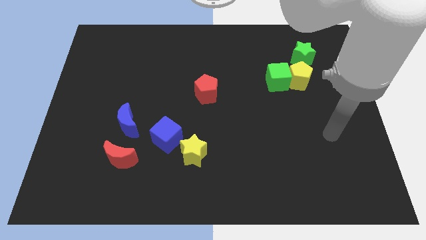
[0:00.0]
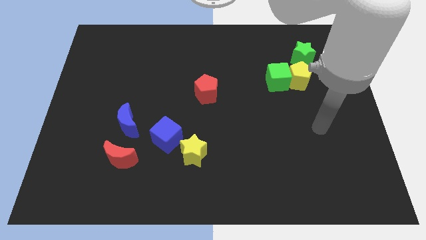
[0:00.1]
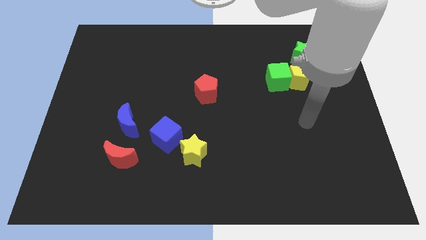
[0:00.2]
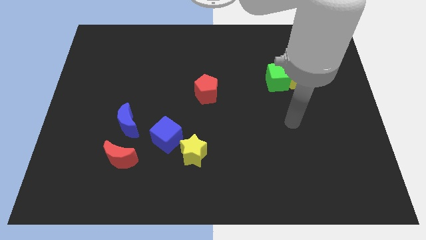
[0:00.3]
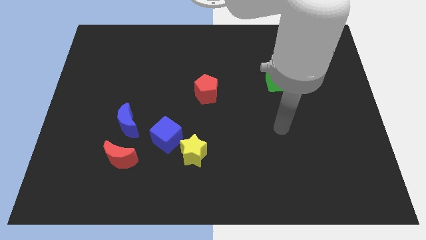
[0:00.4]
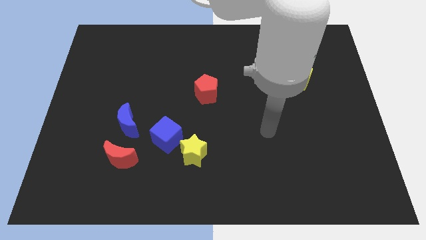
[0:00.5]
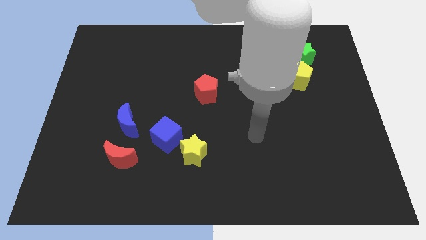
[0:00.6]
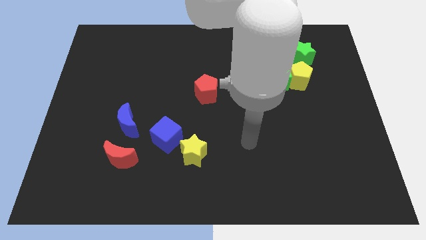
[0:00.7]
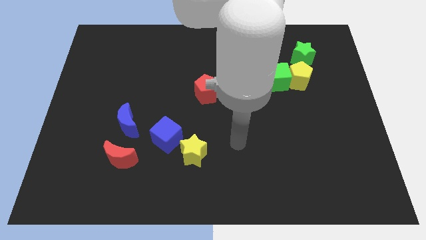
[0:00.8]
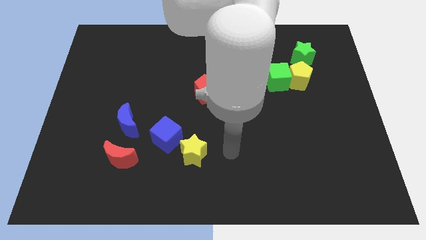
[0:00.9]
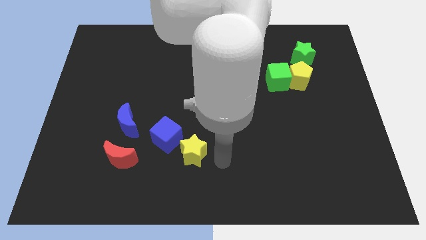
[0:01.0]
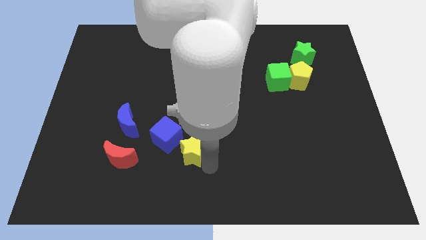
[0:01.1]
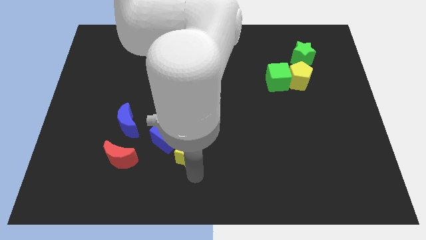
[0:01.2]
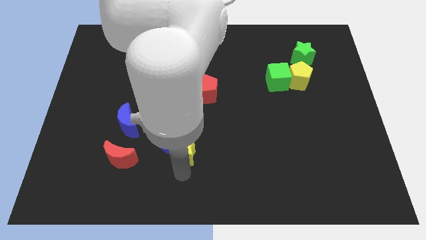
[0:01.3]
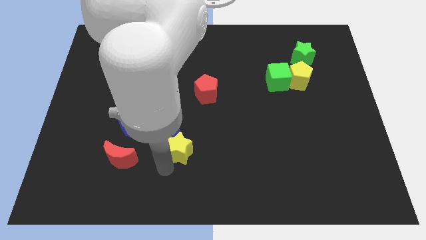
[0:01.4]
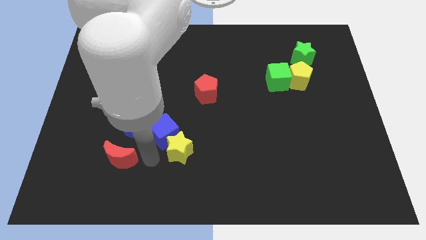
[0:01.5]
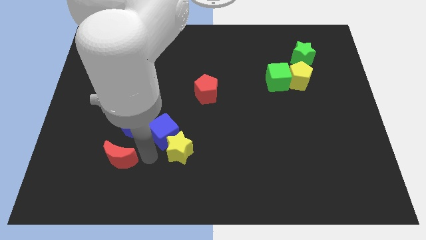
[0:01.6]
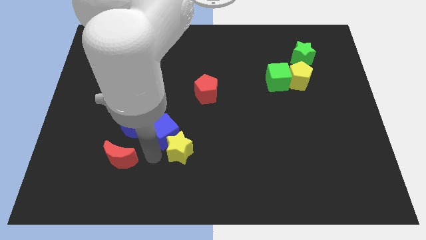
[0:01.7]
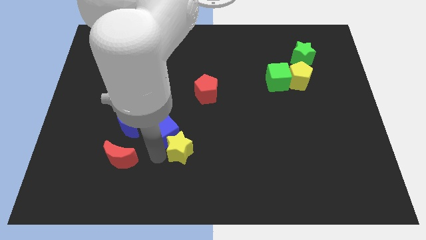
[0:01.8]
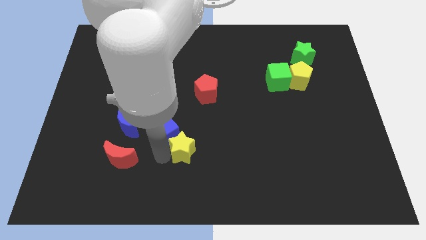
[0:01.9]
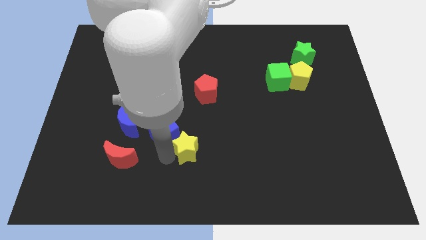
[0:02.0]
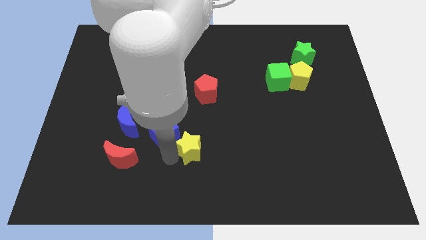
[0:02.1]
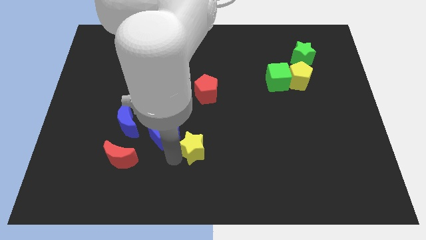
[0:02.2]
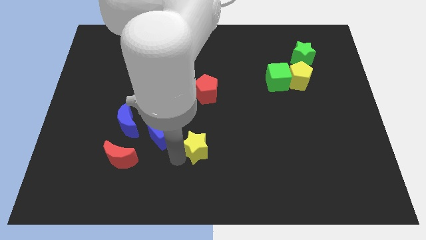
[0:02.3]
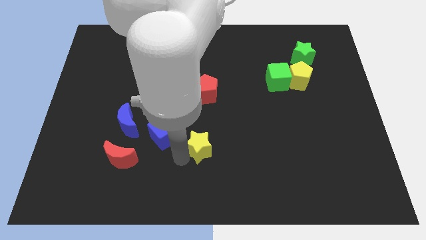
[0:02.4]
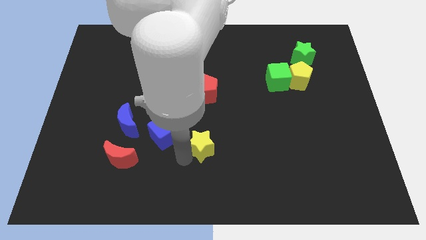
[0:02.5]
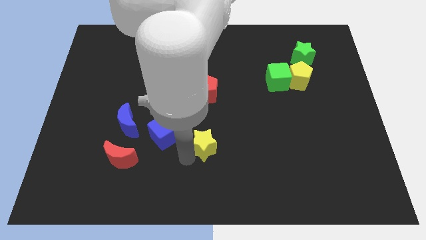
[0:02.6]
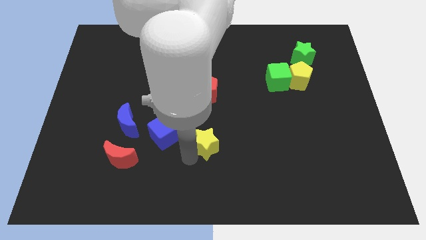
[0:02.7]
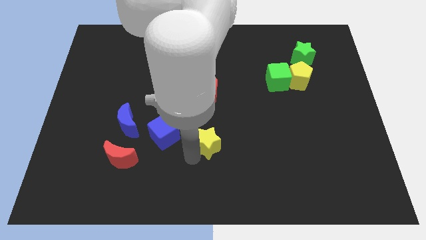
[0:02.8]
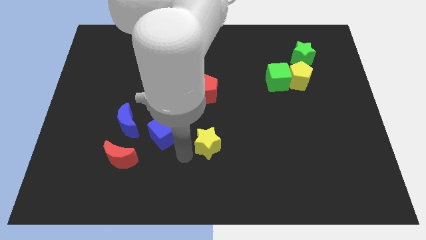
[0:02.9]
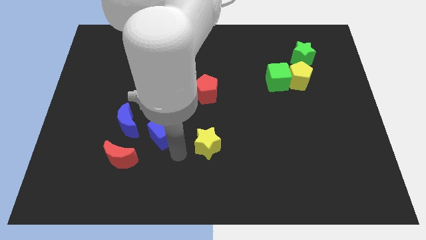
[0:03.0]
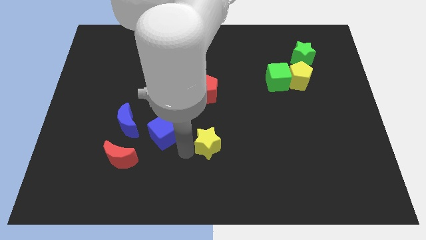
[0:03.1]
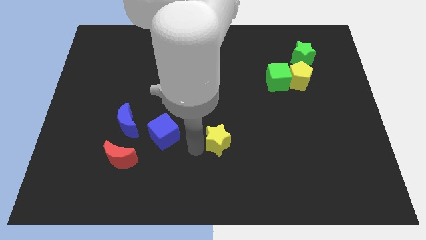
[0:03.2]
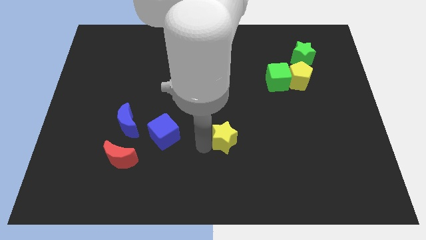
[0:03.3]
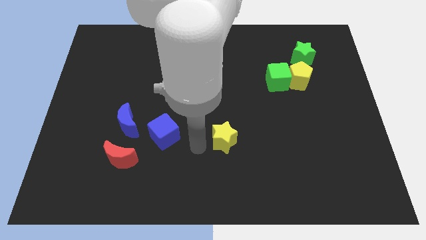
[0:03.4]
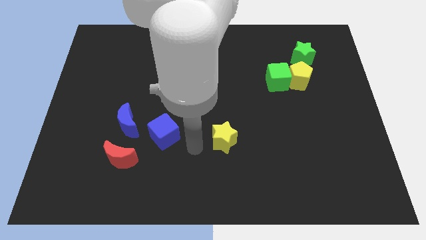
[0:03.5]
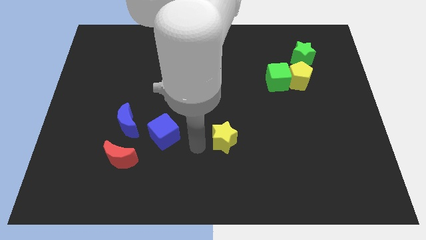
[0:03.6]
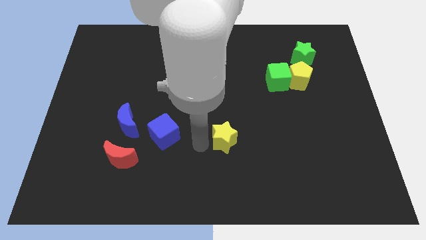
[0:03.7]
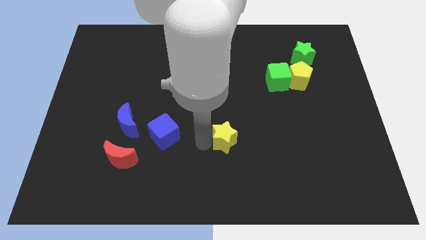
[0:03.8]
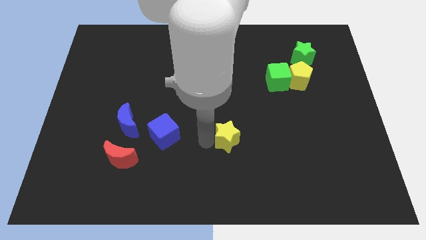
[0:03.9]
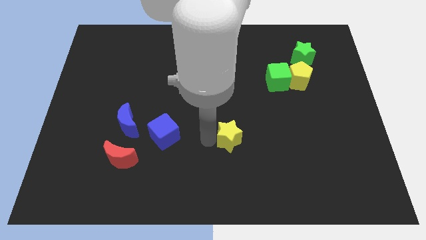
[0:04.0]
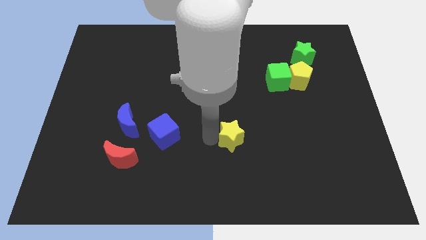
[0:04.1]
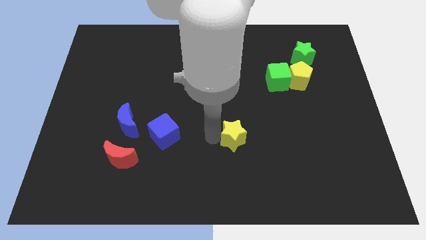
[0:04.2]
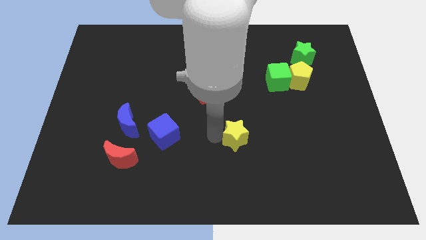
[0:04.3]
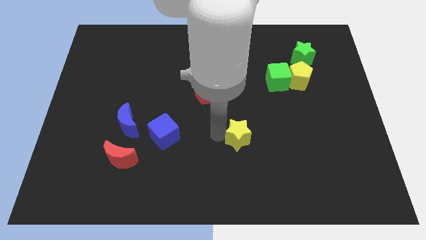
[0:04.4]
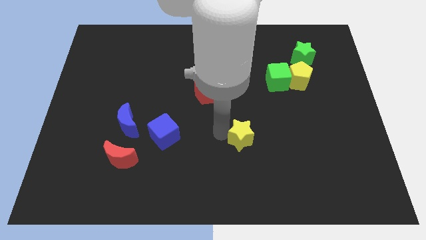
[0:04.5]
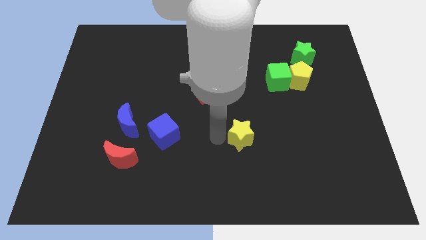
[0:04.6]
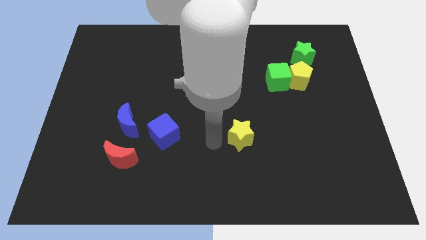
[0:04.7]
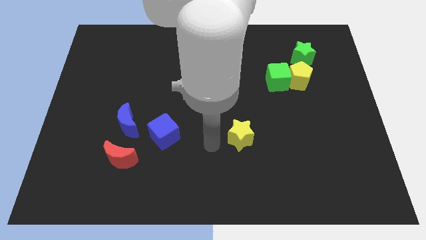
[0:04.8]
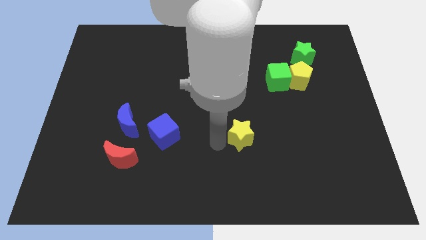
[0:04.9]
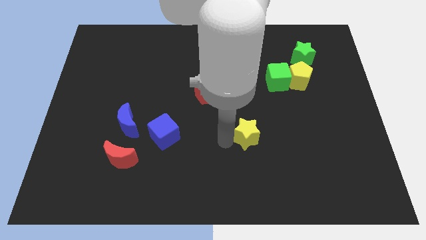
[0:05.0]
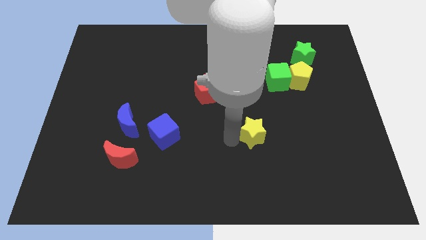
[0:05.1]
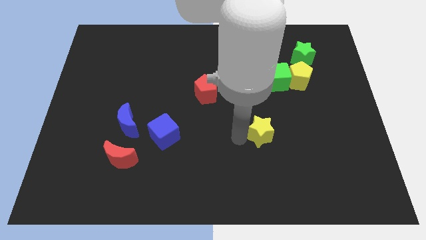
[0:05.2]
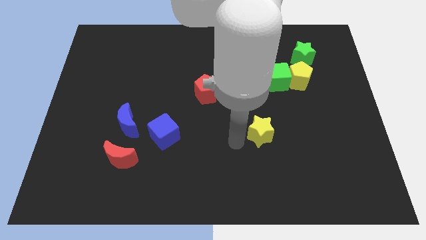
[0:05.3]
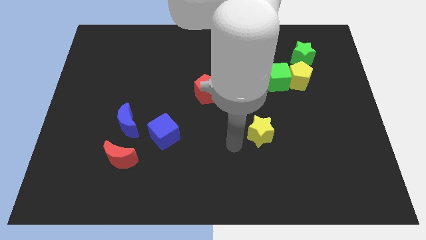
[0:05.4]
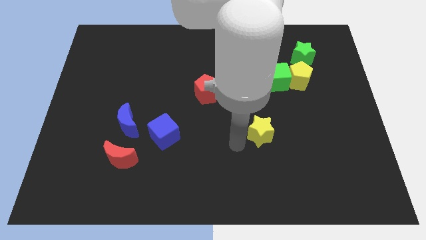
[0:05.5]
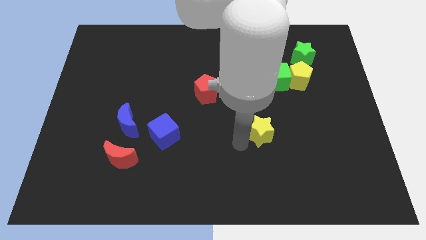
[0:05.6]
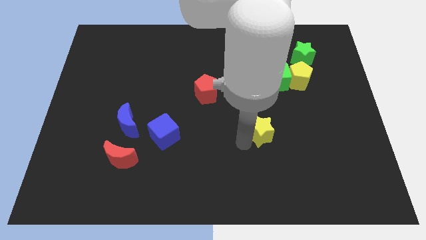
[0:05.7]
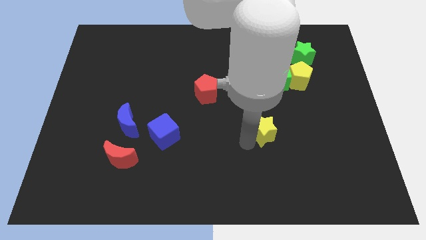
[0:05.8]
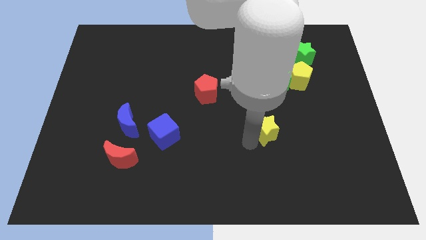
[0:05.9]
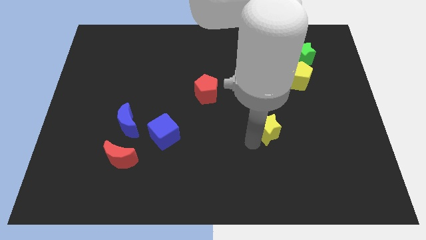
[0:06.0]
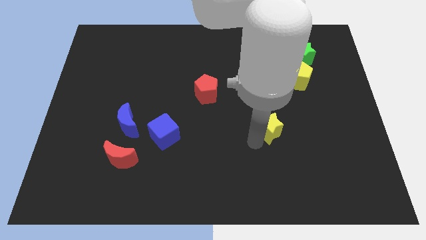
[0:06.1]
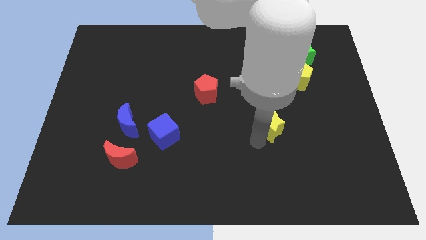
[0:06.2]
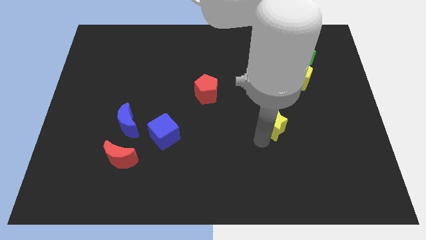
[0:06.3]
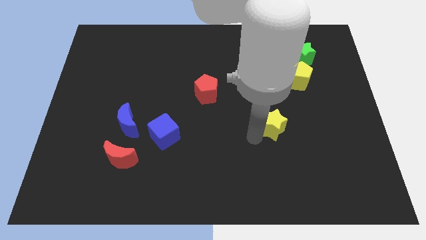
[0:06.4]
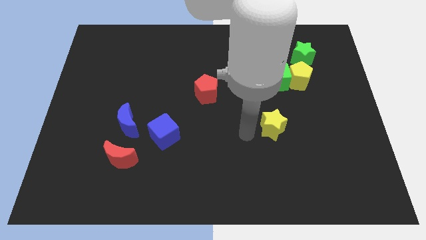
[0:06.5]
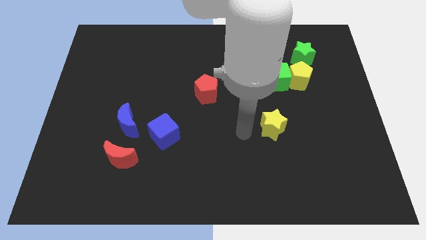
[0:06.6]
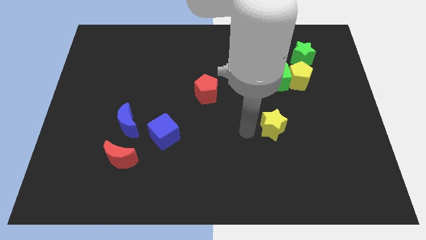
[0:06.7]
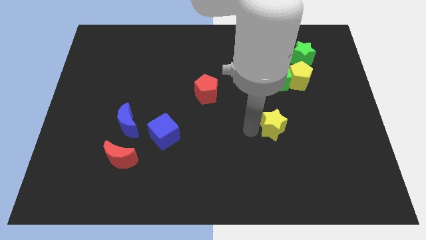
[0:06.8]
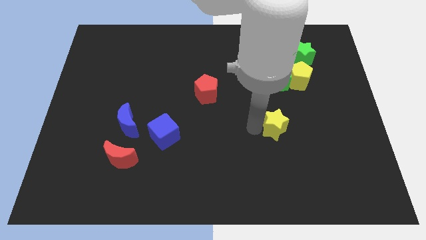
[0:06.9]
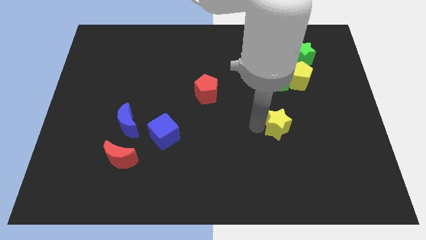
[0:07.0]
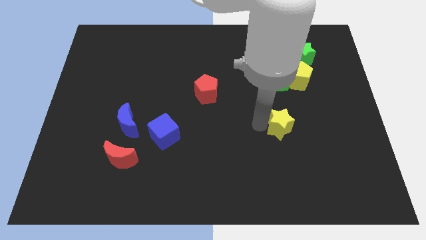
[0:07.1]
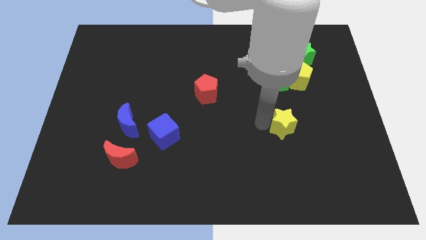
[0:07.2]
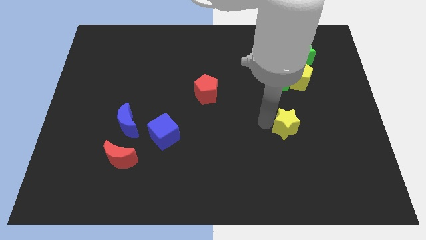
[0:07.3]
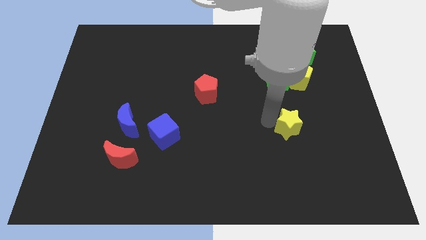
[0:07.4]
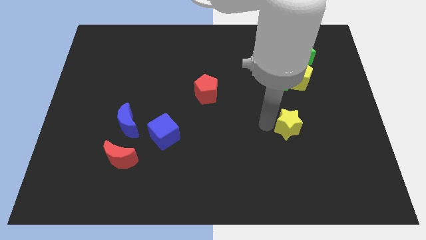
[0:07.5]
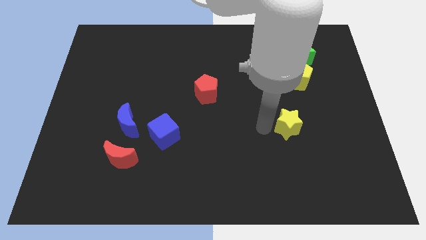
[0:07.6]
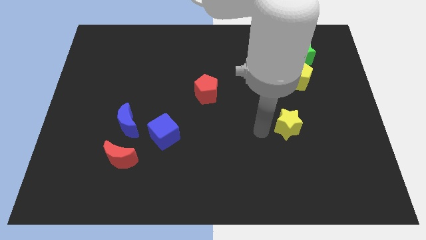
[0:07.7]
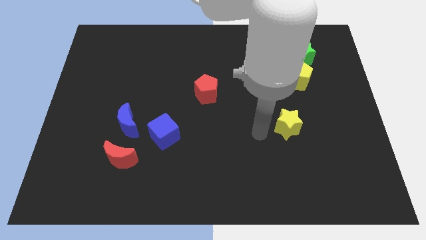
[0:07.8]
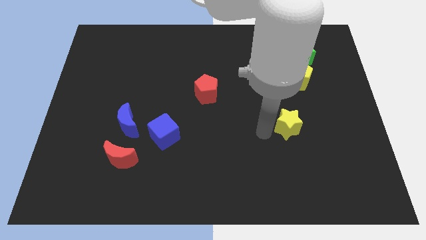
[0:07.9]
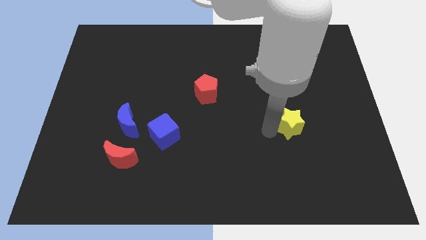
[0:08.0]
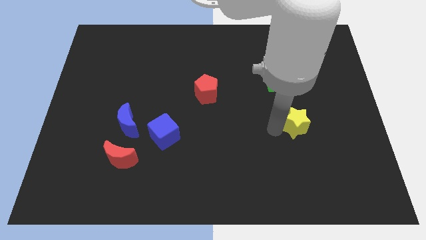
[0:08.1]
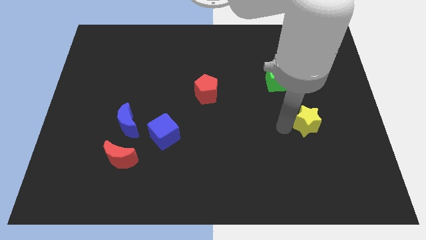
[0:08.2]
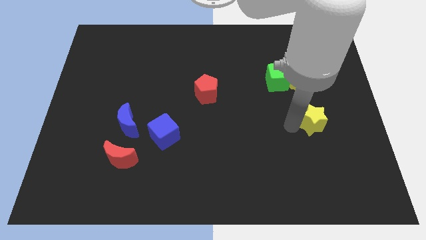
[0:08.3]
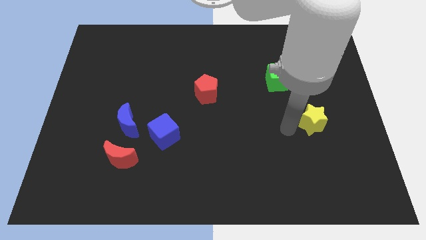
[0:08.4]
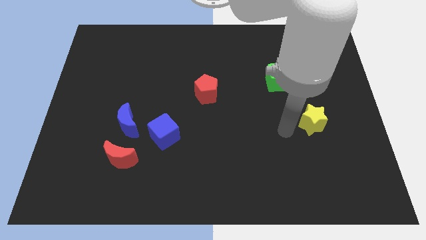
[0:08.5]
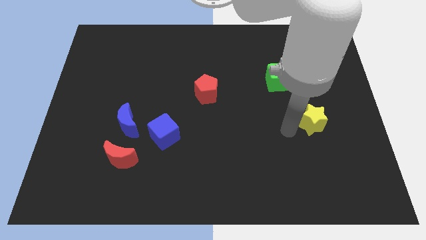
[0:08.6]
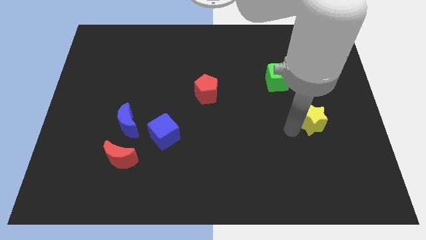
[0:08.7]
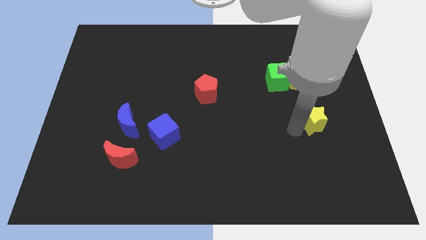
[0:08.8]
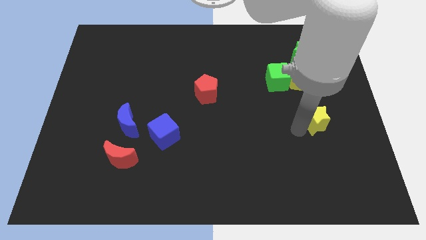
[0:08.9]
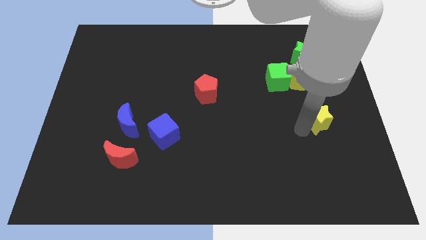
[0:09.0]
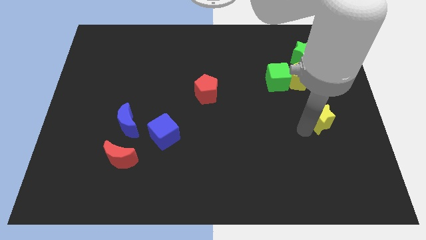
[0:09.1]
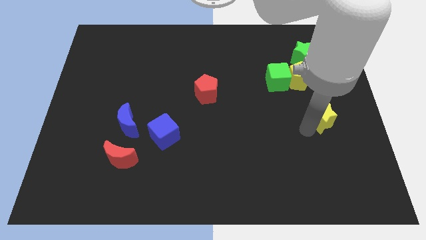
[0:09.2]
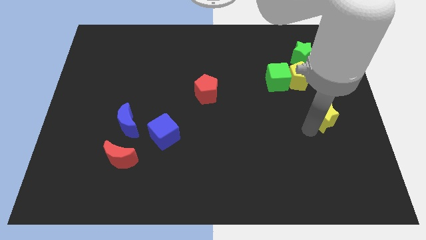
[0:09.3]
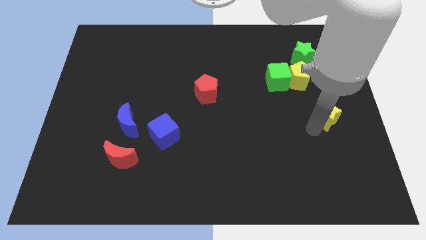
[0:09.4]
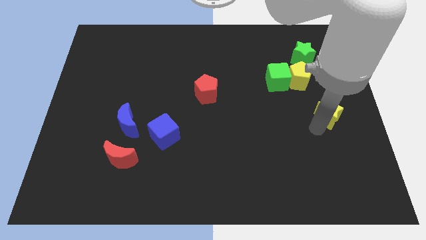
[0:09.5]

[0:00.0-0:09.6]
put the yellow star to the right side
